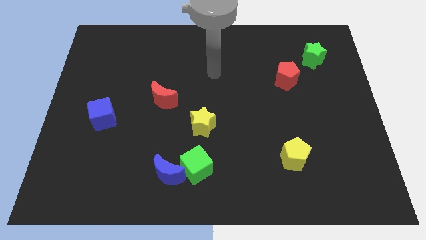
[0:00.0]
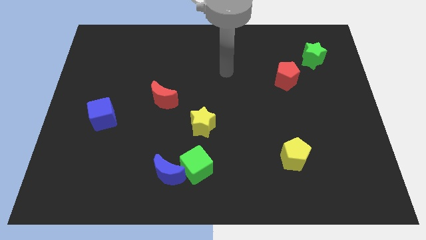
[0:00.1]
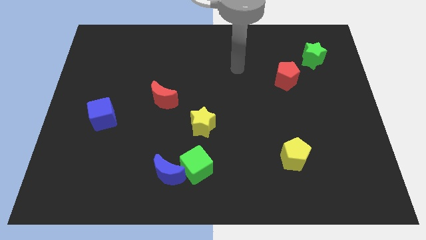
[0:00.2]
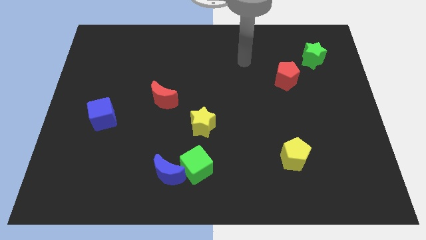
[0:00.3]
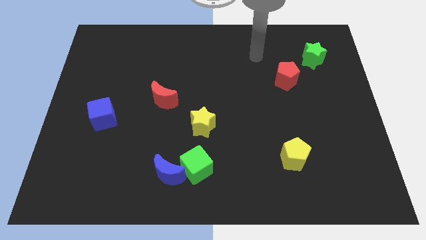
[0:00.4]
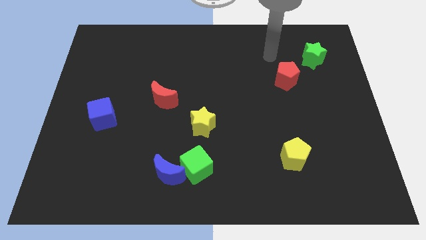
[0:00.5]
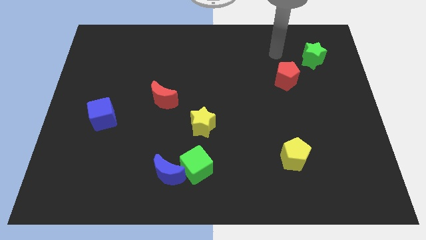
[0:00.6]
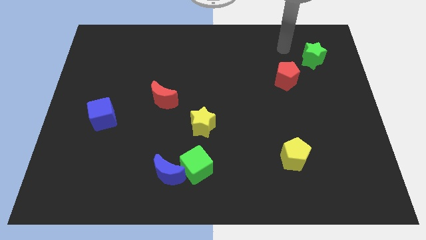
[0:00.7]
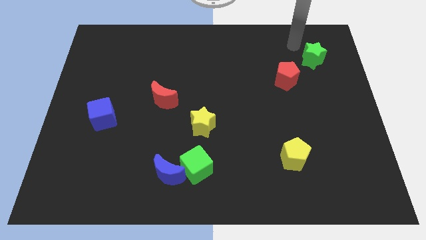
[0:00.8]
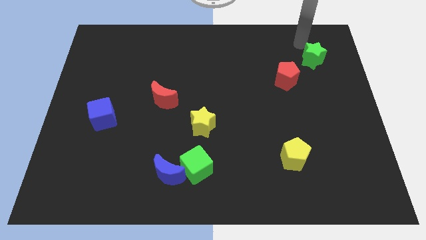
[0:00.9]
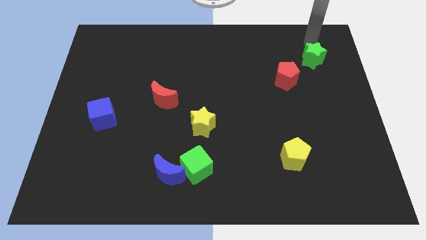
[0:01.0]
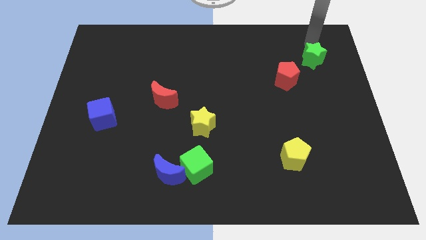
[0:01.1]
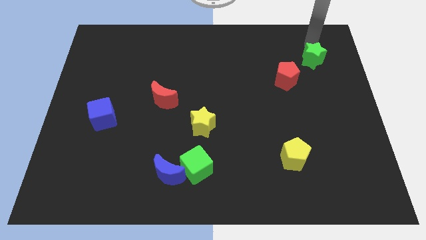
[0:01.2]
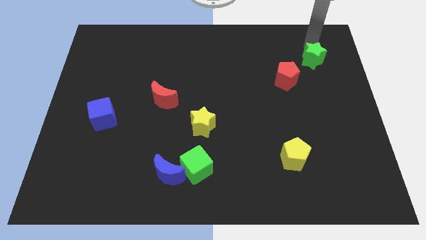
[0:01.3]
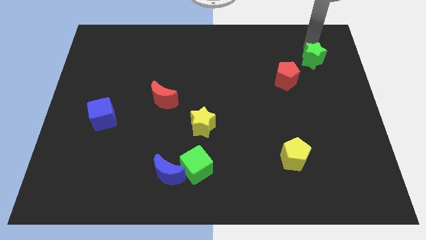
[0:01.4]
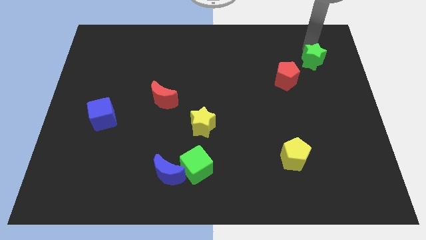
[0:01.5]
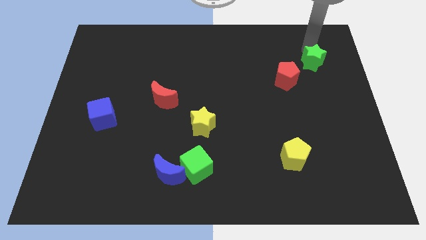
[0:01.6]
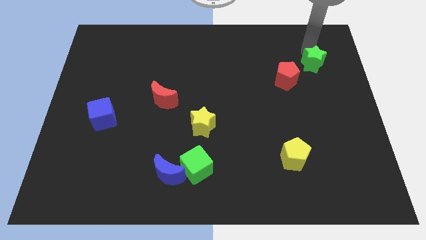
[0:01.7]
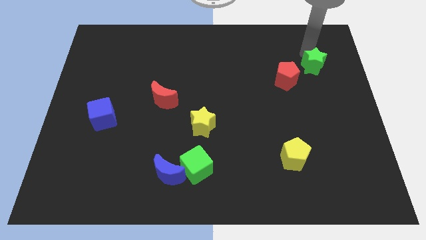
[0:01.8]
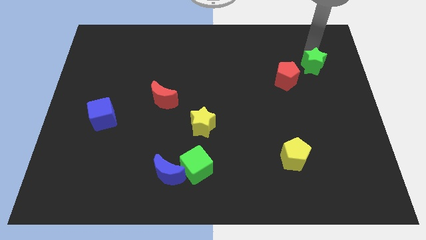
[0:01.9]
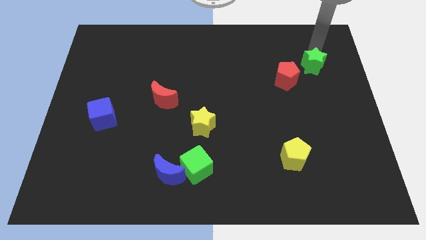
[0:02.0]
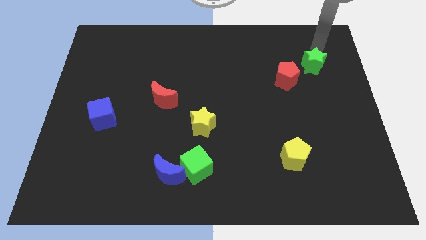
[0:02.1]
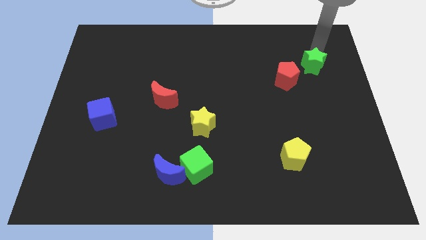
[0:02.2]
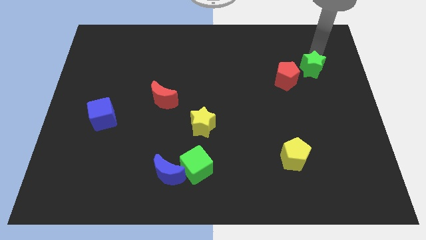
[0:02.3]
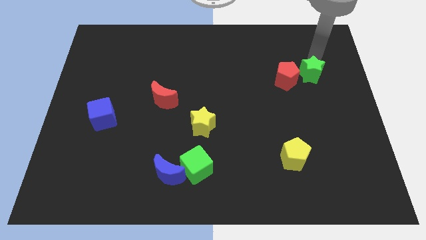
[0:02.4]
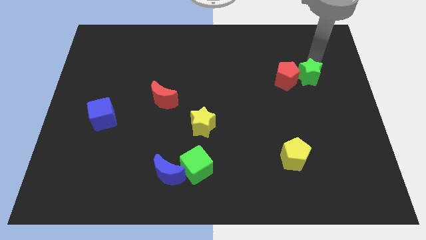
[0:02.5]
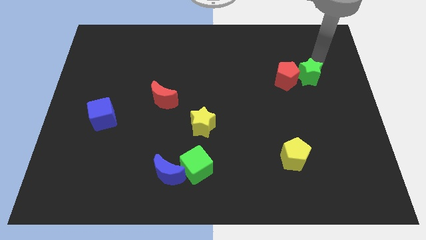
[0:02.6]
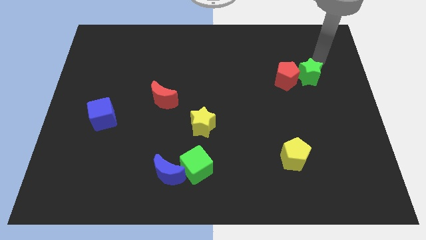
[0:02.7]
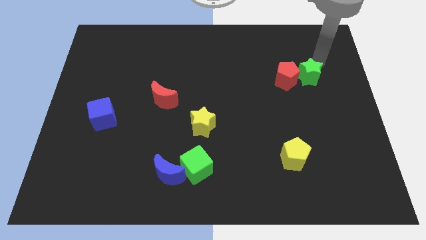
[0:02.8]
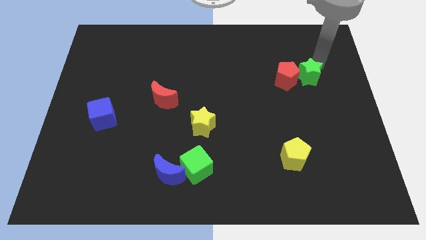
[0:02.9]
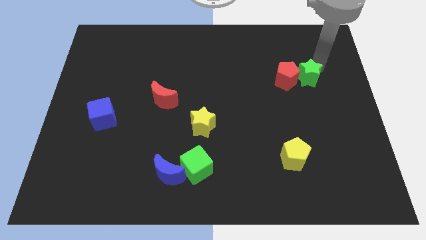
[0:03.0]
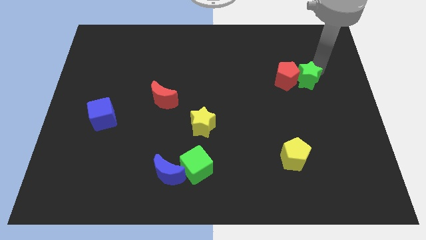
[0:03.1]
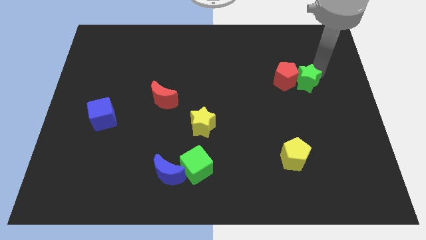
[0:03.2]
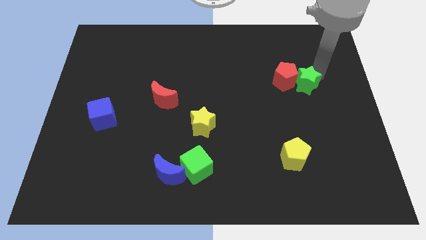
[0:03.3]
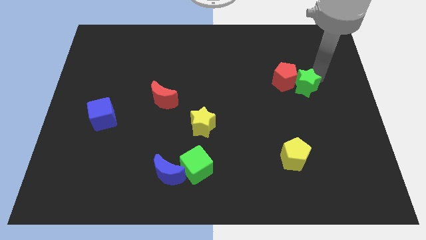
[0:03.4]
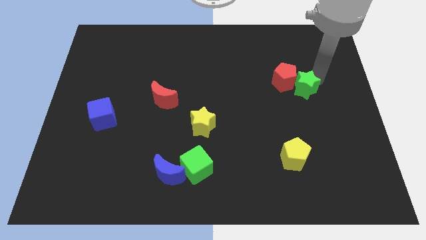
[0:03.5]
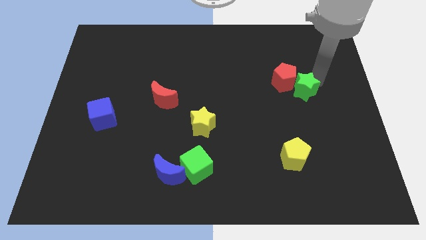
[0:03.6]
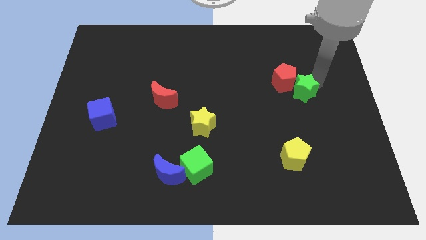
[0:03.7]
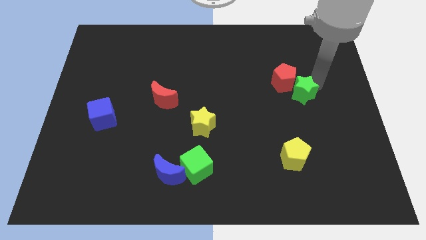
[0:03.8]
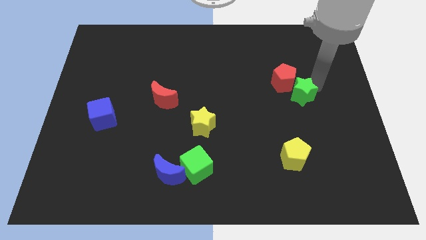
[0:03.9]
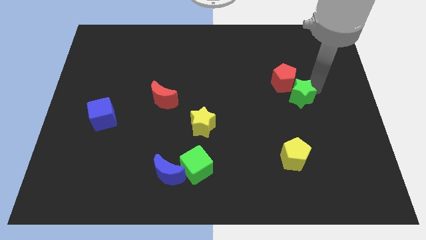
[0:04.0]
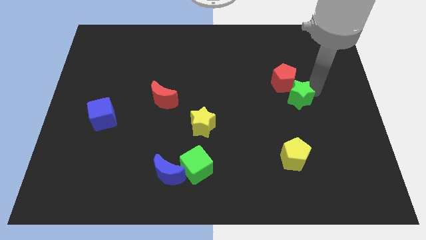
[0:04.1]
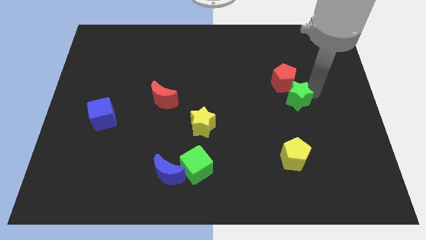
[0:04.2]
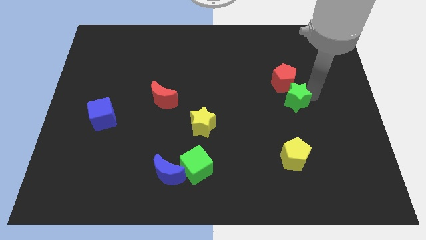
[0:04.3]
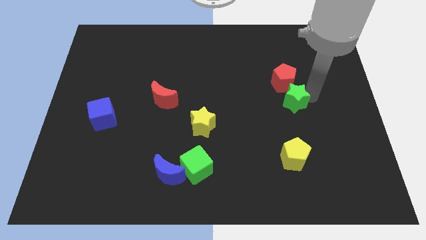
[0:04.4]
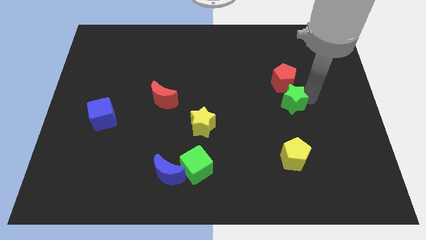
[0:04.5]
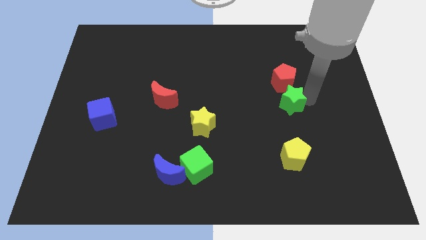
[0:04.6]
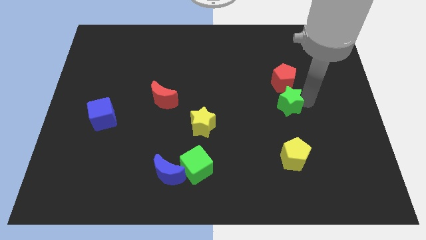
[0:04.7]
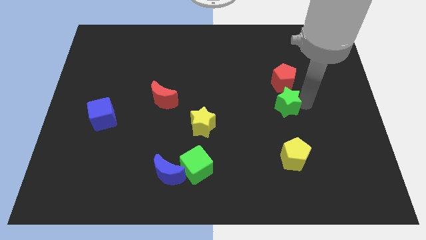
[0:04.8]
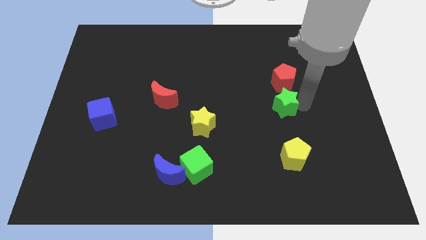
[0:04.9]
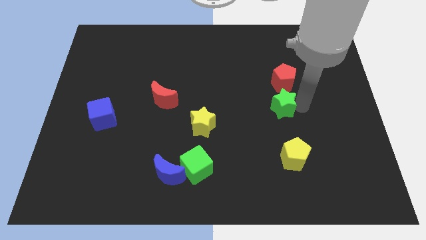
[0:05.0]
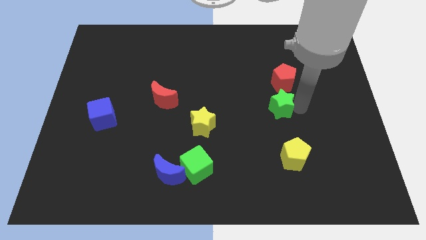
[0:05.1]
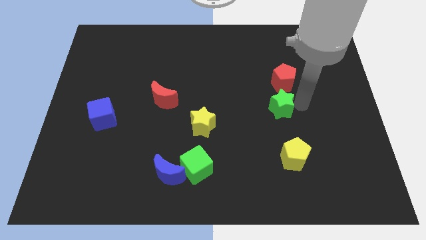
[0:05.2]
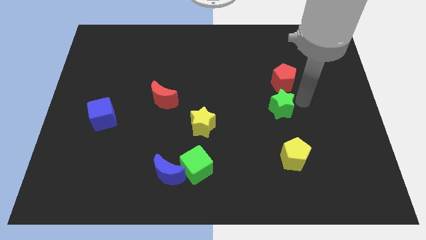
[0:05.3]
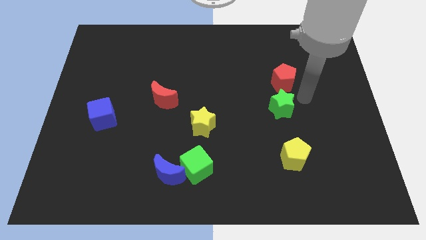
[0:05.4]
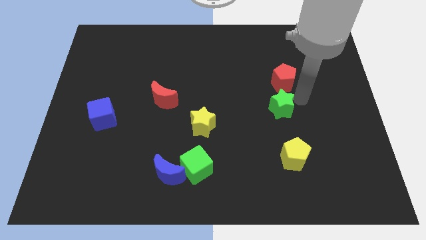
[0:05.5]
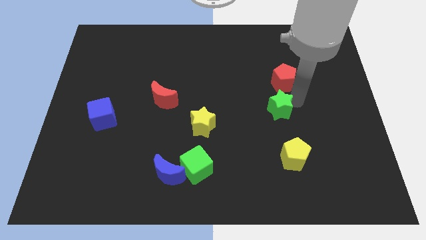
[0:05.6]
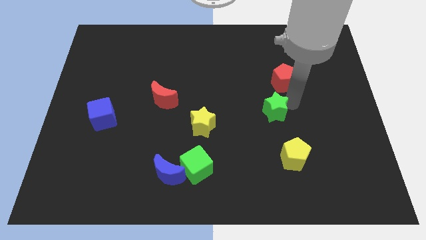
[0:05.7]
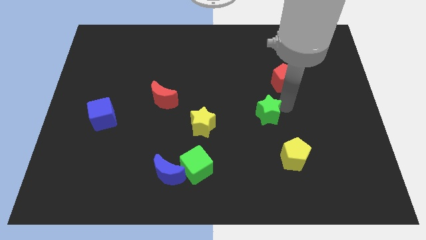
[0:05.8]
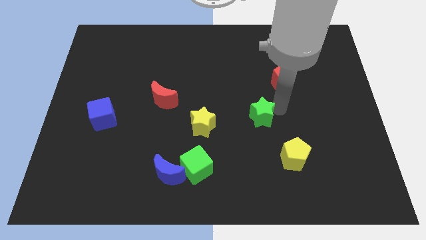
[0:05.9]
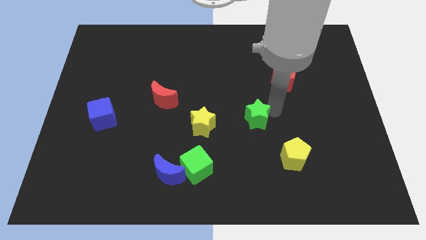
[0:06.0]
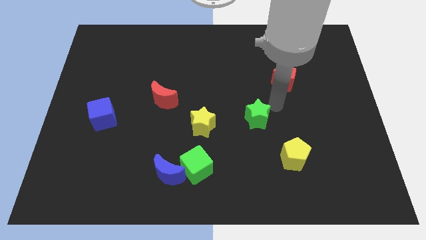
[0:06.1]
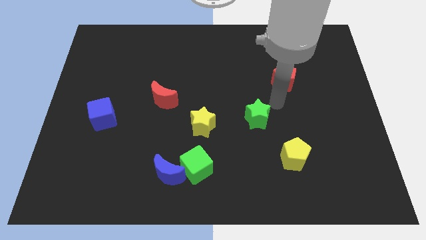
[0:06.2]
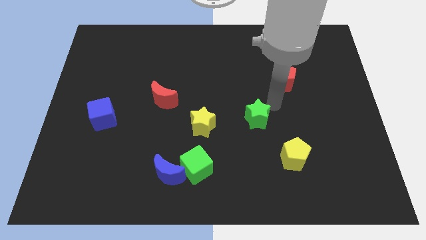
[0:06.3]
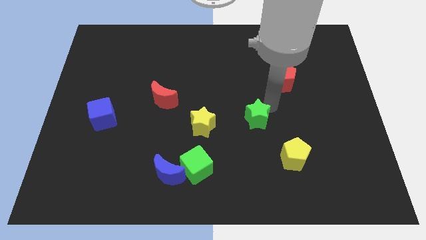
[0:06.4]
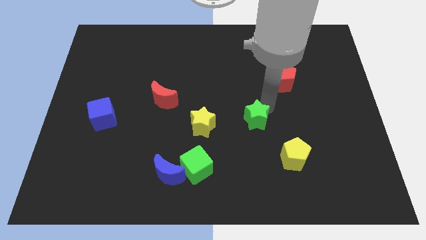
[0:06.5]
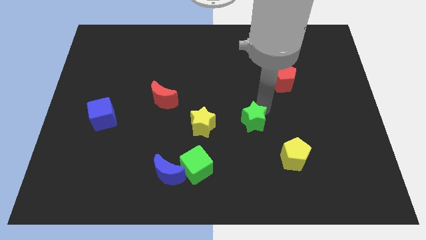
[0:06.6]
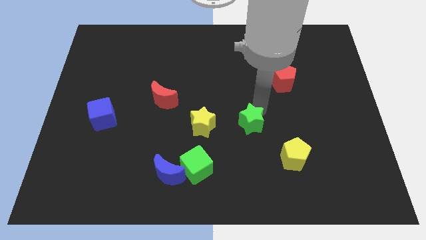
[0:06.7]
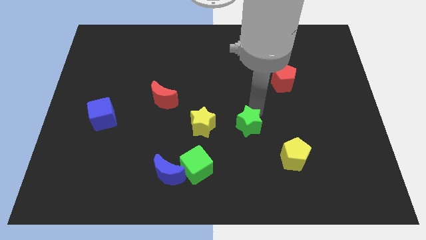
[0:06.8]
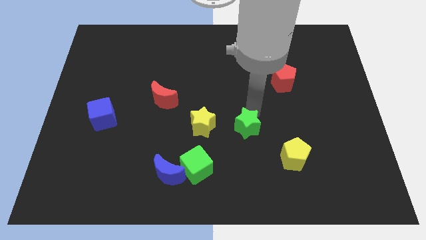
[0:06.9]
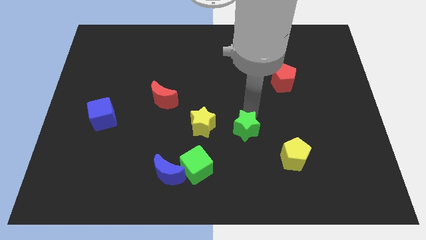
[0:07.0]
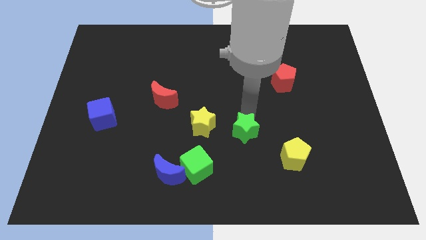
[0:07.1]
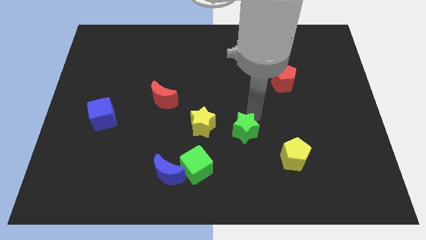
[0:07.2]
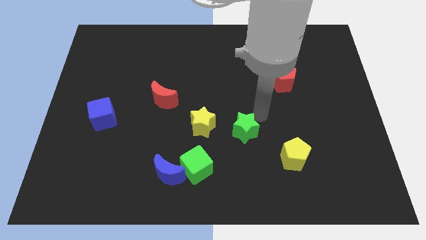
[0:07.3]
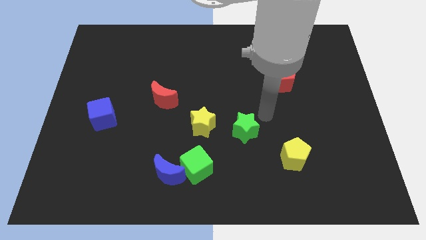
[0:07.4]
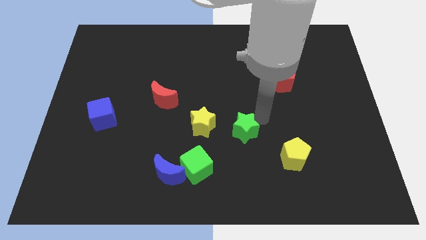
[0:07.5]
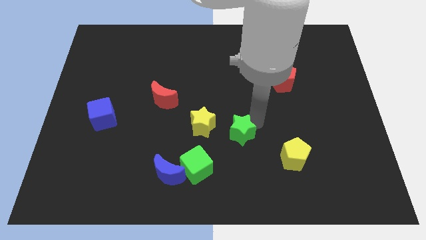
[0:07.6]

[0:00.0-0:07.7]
slide the green star to the bottom right of the yellow star
